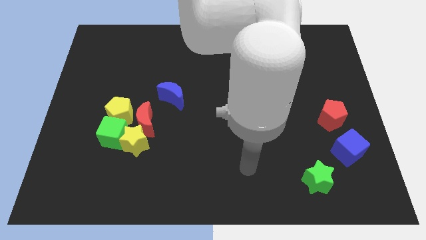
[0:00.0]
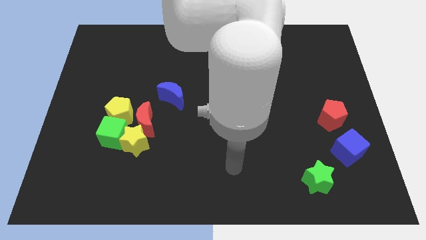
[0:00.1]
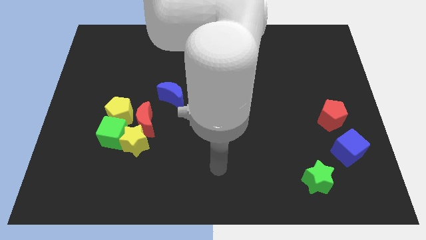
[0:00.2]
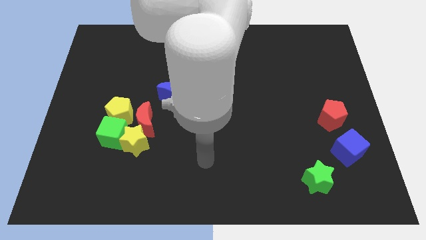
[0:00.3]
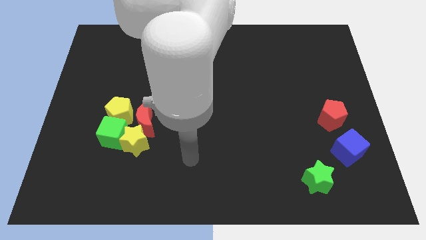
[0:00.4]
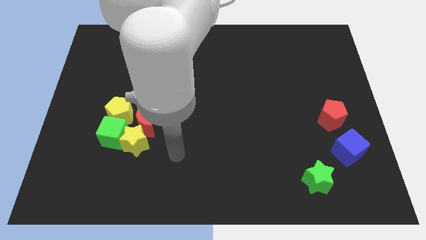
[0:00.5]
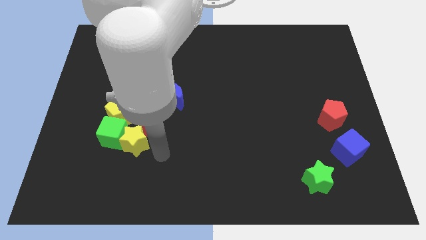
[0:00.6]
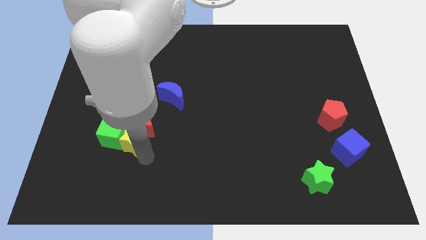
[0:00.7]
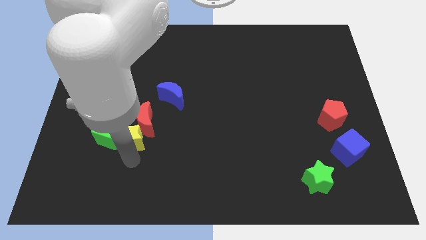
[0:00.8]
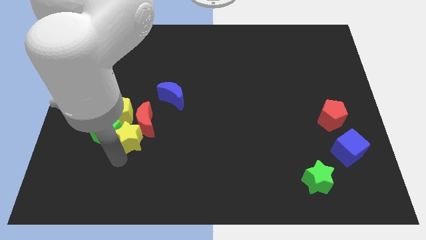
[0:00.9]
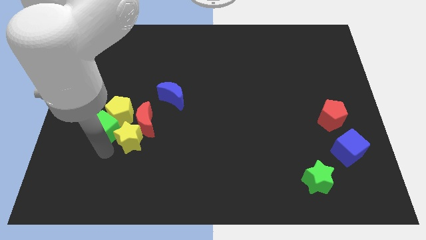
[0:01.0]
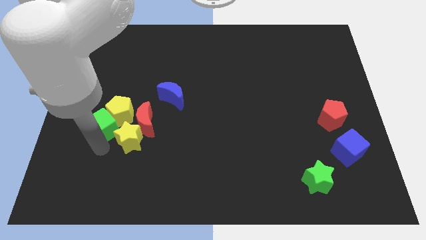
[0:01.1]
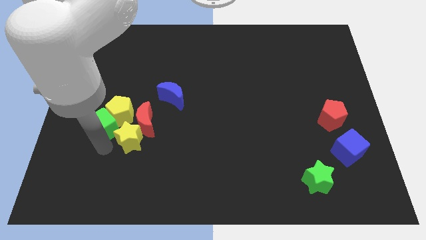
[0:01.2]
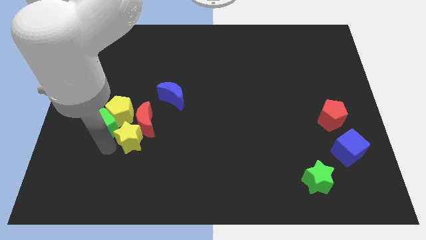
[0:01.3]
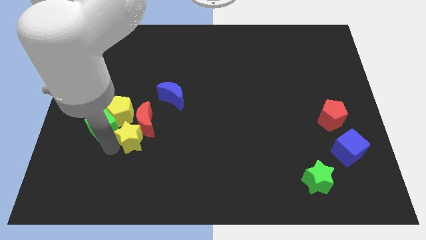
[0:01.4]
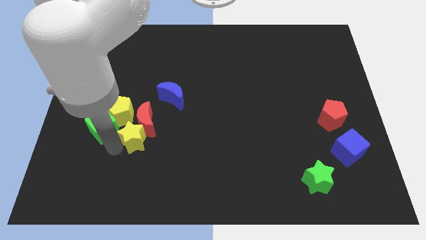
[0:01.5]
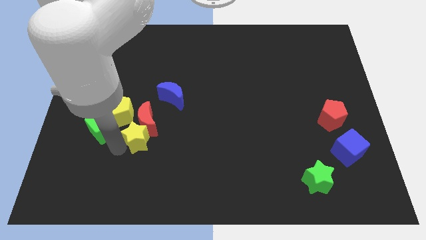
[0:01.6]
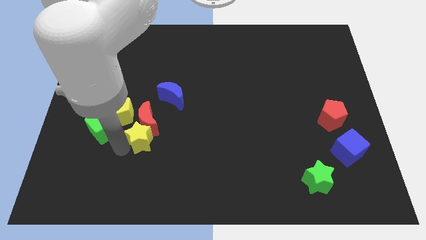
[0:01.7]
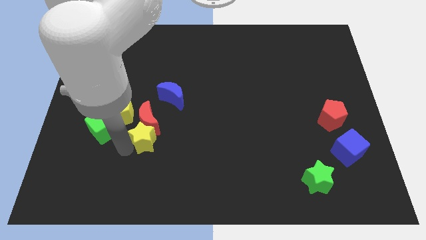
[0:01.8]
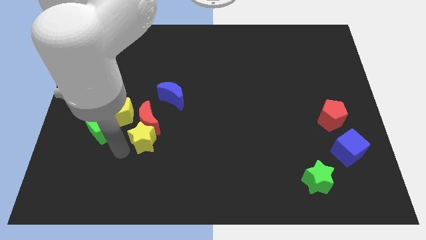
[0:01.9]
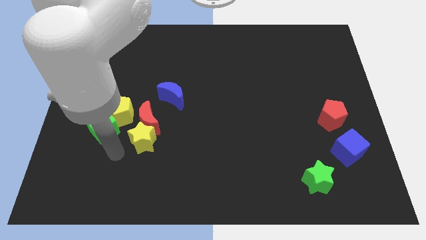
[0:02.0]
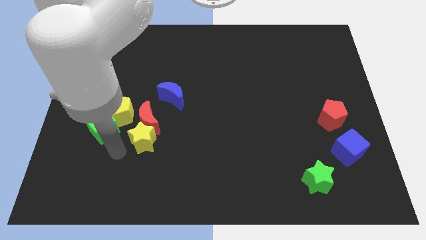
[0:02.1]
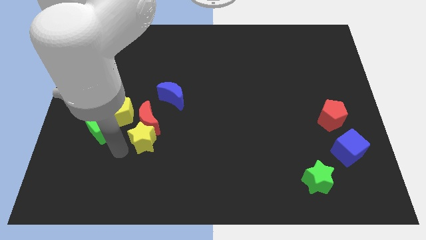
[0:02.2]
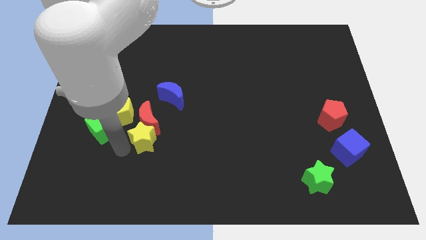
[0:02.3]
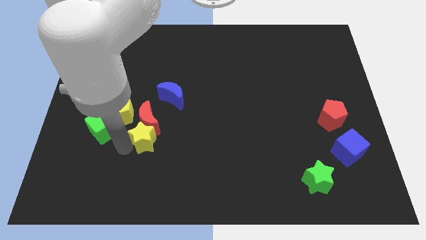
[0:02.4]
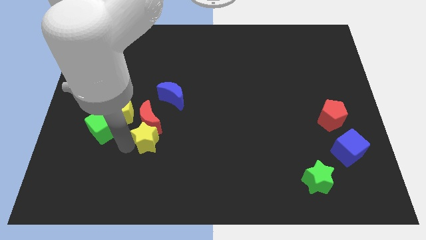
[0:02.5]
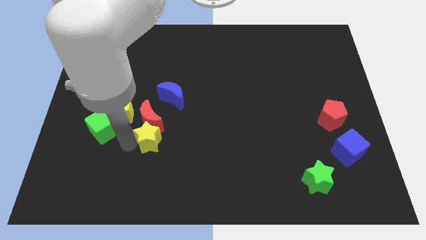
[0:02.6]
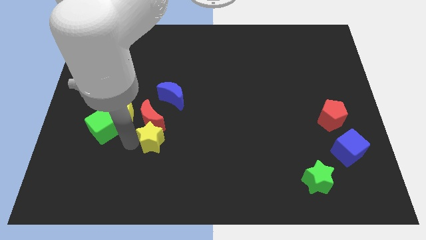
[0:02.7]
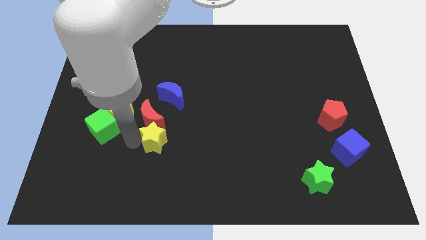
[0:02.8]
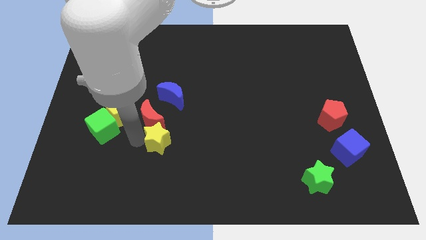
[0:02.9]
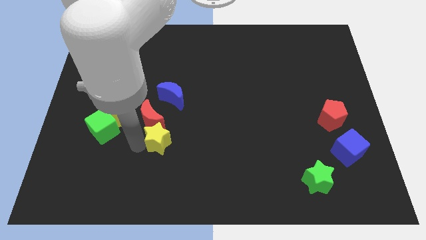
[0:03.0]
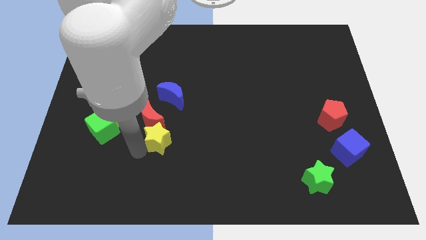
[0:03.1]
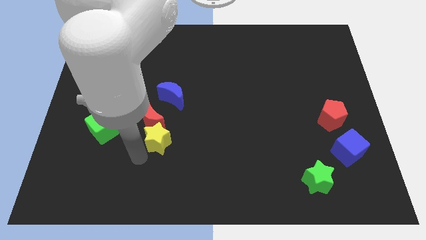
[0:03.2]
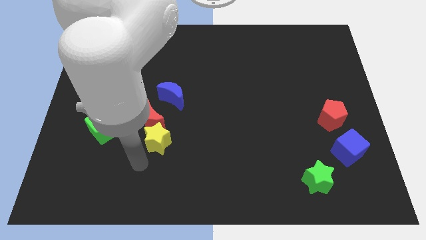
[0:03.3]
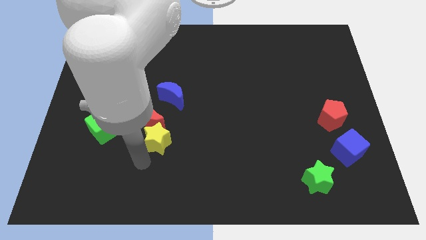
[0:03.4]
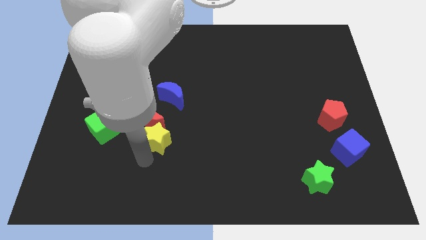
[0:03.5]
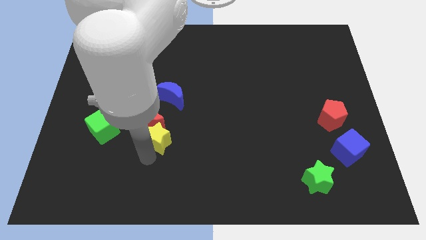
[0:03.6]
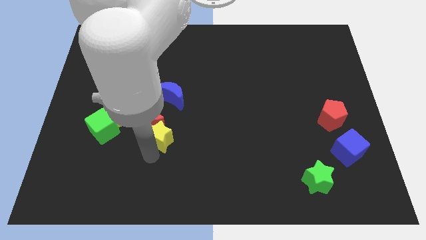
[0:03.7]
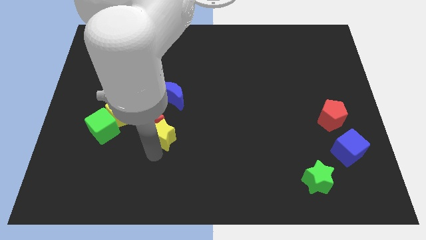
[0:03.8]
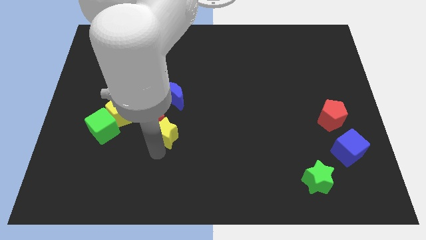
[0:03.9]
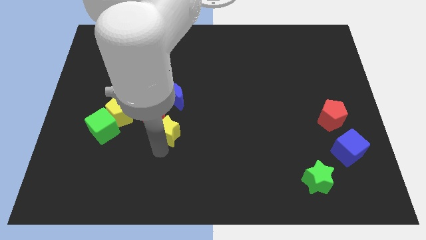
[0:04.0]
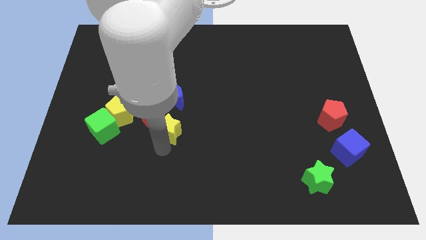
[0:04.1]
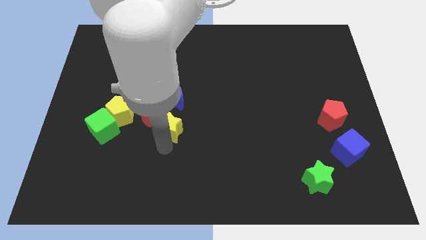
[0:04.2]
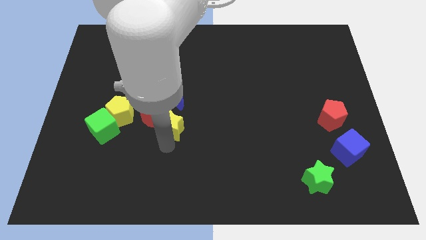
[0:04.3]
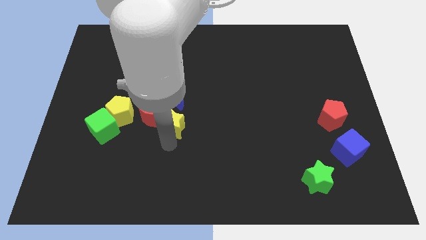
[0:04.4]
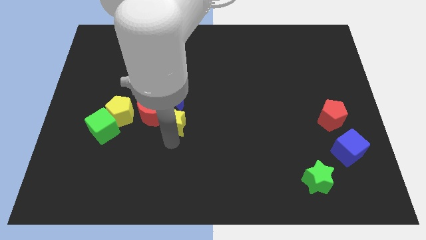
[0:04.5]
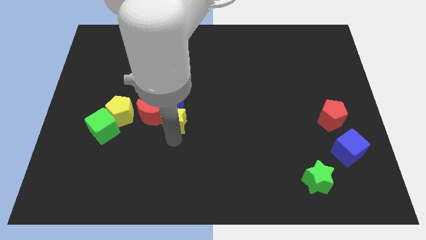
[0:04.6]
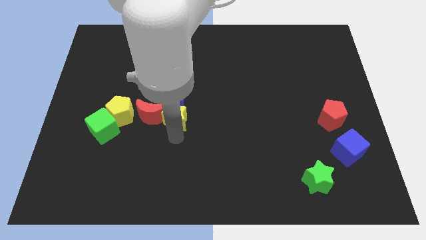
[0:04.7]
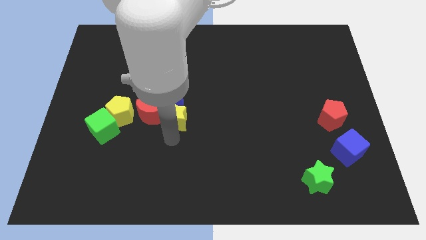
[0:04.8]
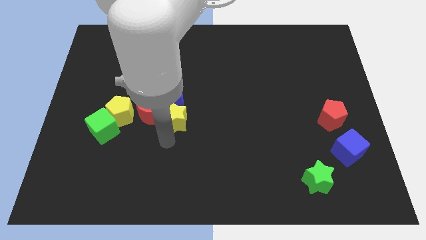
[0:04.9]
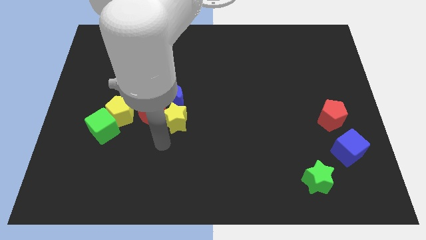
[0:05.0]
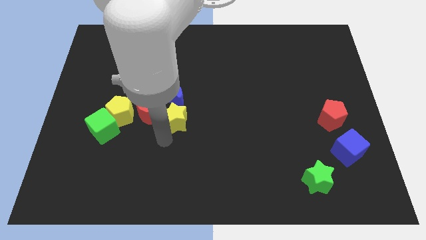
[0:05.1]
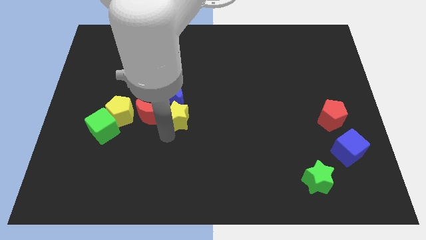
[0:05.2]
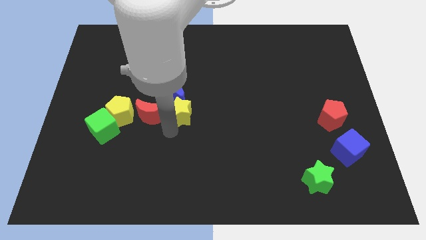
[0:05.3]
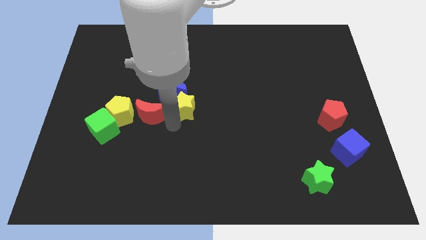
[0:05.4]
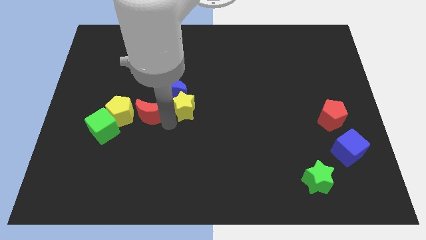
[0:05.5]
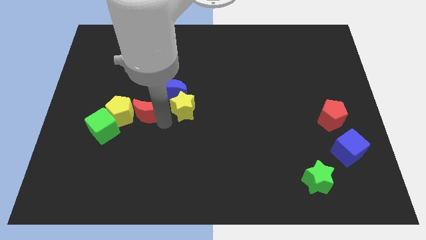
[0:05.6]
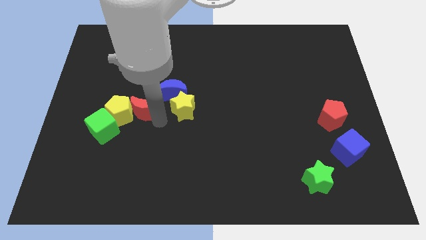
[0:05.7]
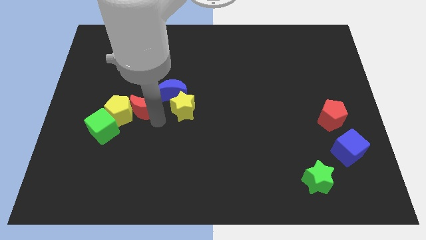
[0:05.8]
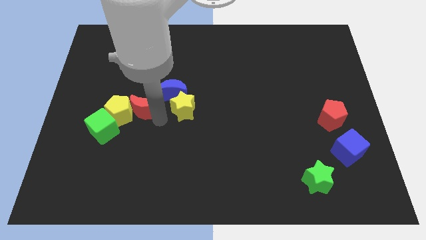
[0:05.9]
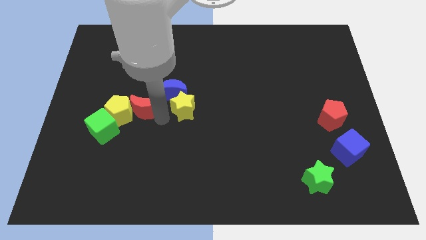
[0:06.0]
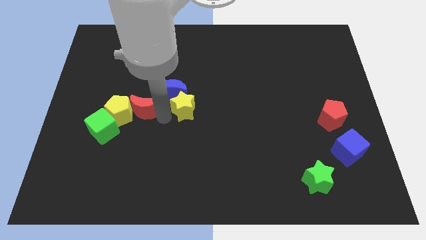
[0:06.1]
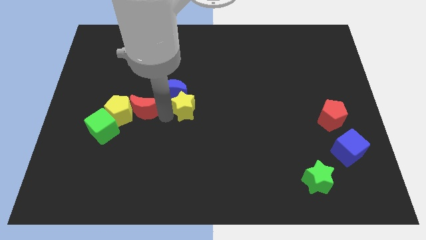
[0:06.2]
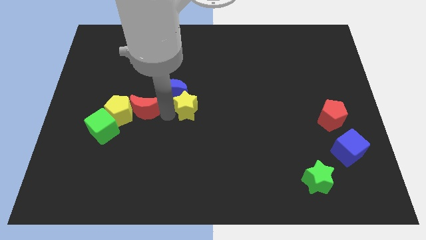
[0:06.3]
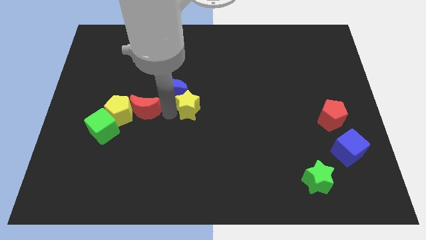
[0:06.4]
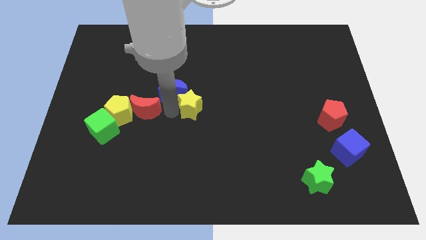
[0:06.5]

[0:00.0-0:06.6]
slide the yellow star right of the blue moon
